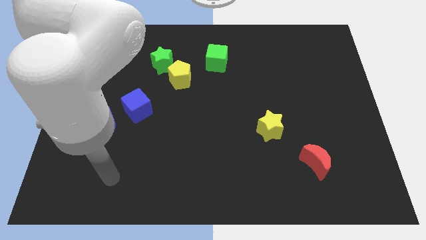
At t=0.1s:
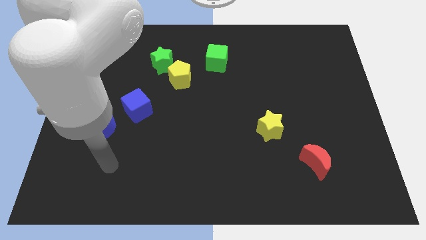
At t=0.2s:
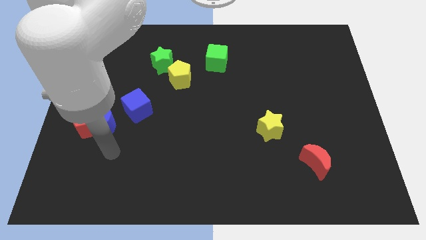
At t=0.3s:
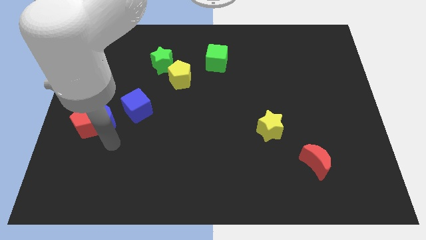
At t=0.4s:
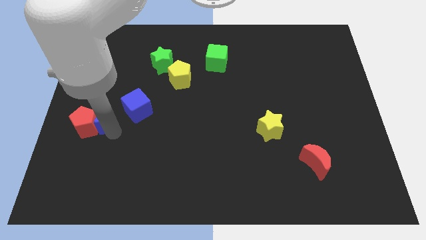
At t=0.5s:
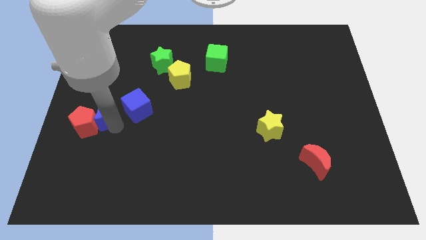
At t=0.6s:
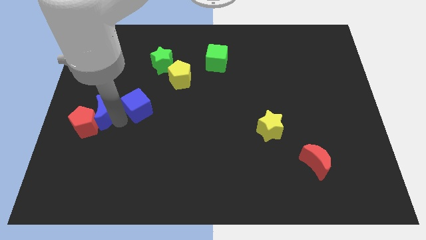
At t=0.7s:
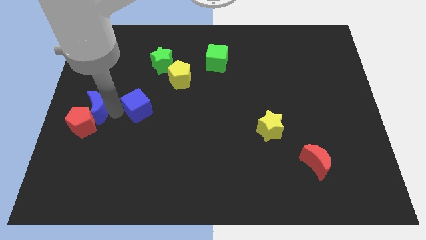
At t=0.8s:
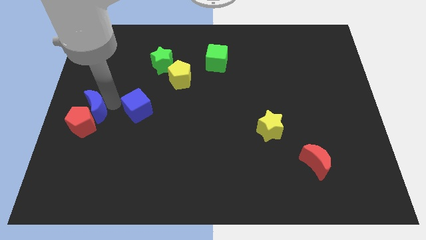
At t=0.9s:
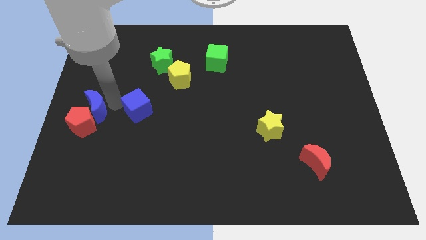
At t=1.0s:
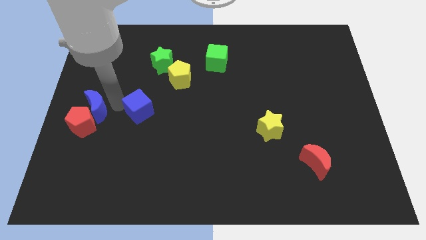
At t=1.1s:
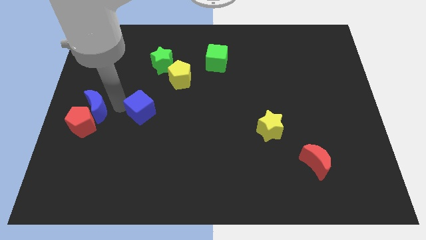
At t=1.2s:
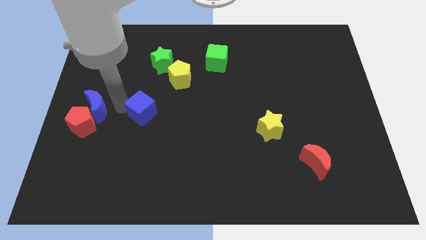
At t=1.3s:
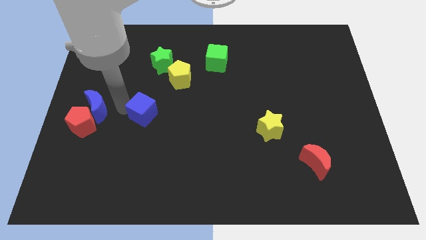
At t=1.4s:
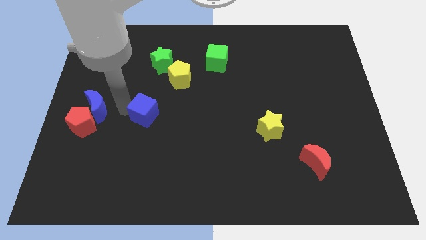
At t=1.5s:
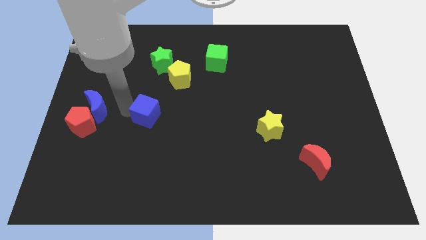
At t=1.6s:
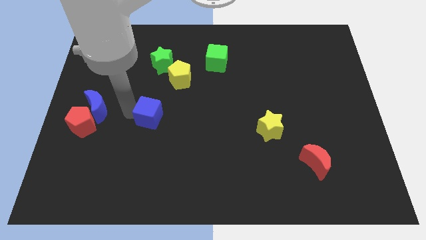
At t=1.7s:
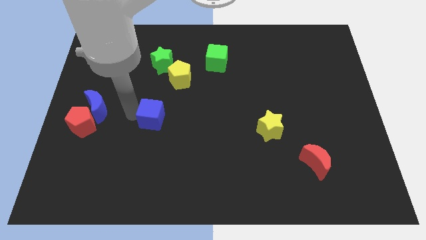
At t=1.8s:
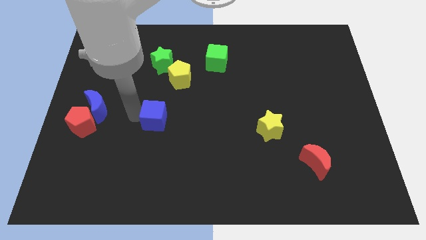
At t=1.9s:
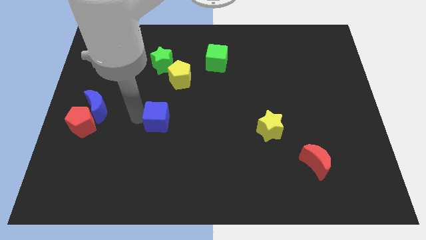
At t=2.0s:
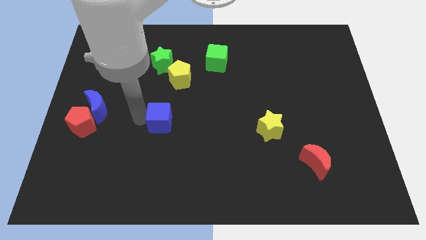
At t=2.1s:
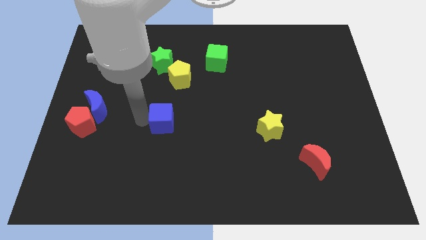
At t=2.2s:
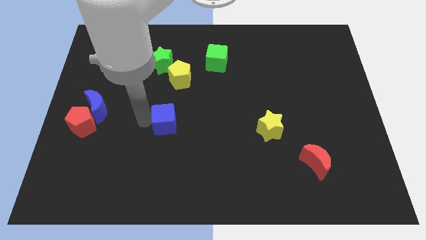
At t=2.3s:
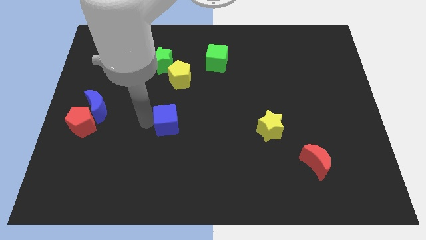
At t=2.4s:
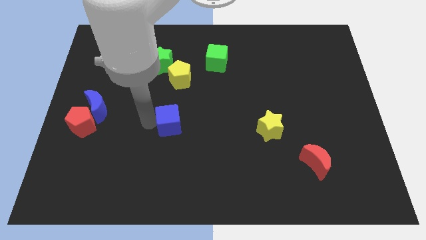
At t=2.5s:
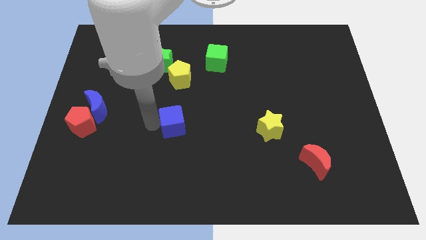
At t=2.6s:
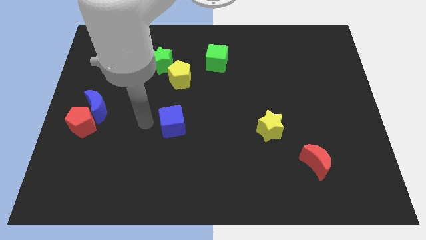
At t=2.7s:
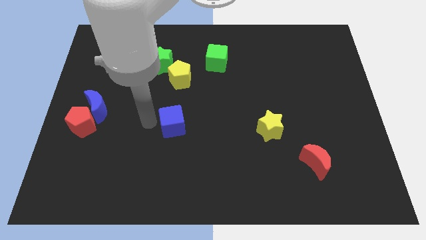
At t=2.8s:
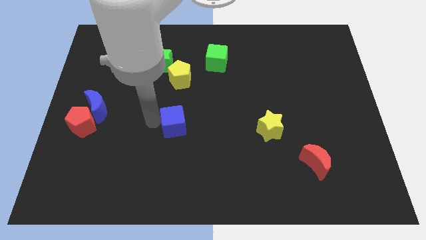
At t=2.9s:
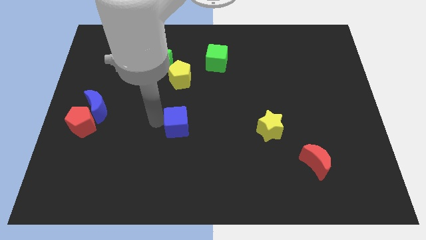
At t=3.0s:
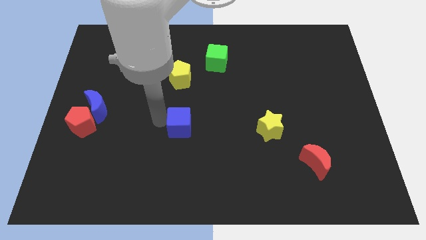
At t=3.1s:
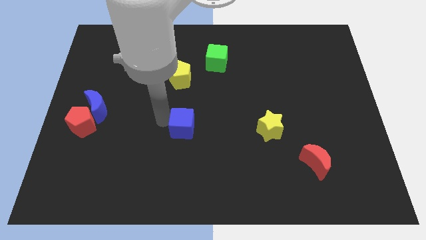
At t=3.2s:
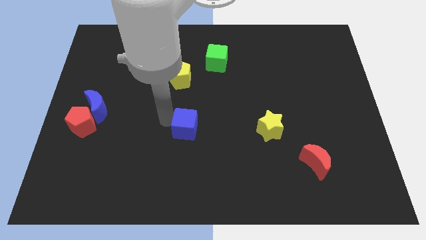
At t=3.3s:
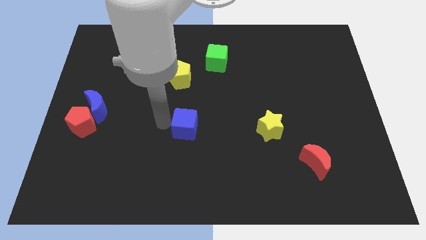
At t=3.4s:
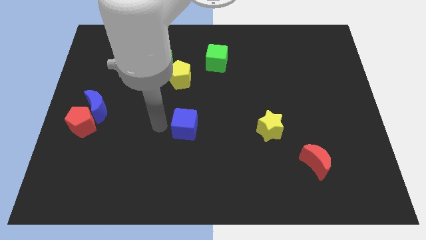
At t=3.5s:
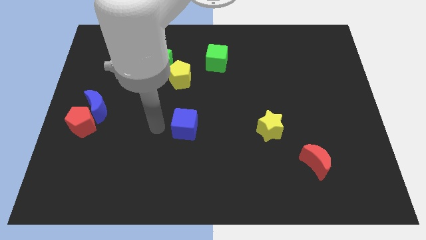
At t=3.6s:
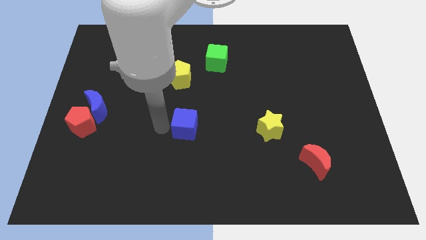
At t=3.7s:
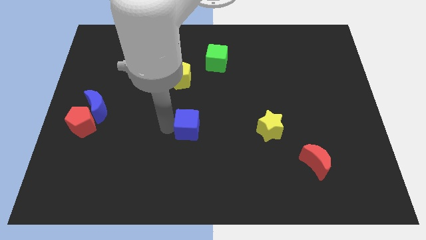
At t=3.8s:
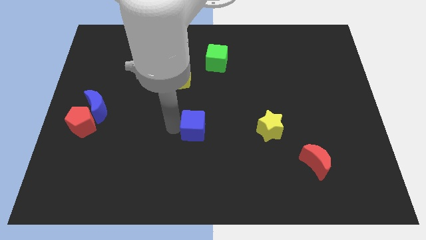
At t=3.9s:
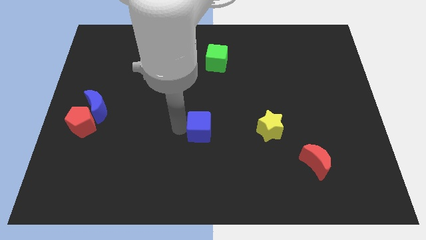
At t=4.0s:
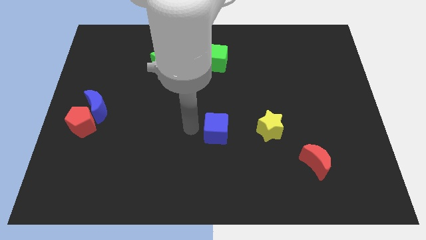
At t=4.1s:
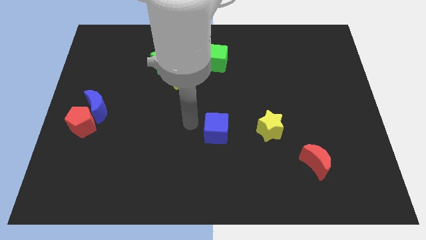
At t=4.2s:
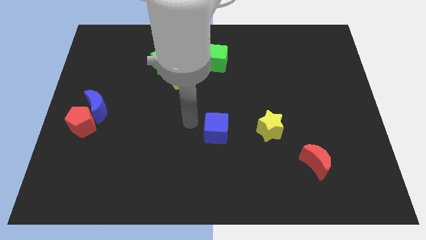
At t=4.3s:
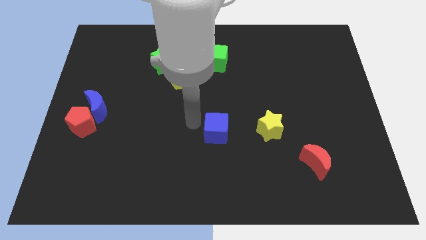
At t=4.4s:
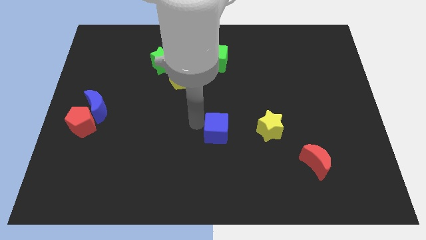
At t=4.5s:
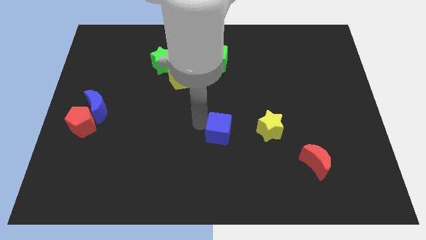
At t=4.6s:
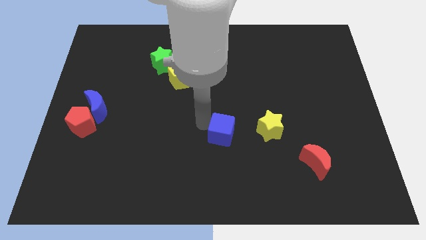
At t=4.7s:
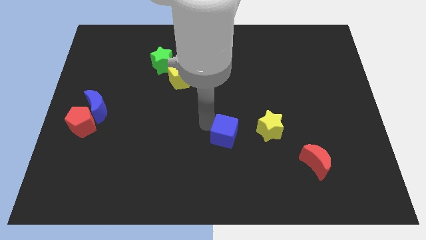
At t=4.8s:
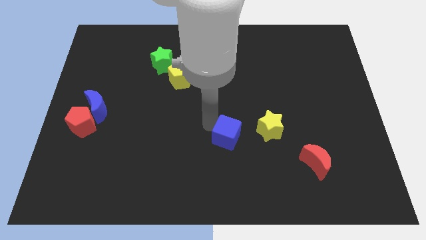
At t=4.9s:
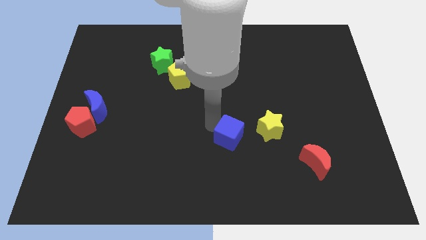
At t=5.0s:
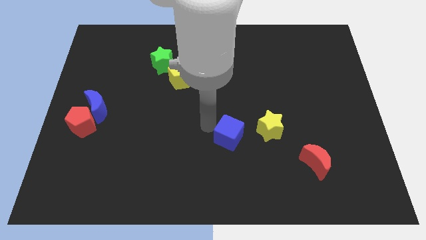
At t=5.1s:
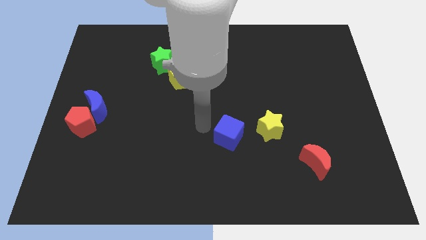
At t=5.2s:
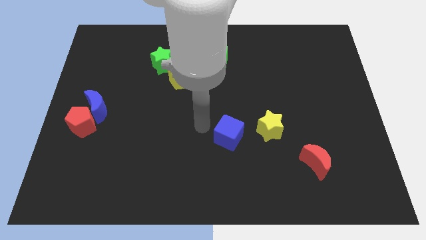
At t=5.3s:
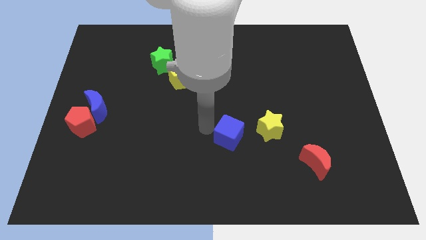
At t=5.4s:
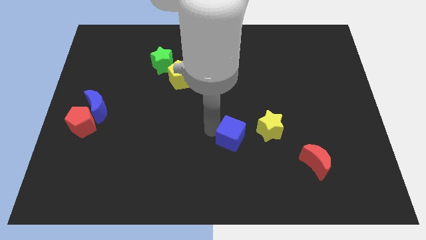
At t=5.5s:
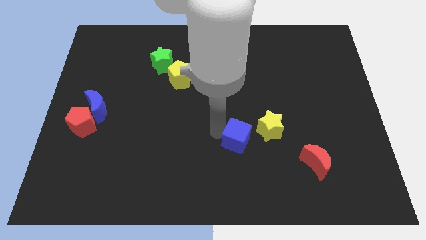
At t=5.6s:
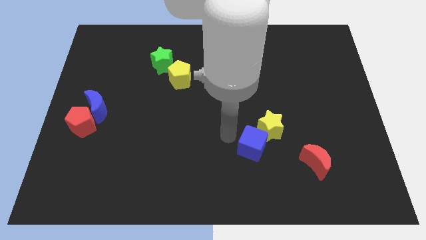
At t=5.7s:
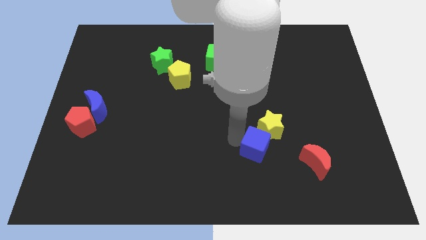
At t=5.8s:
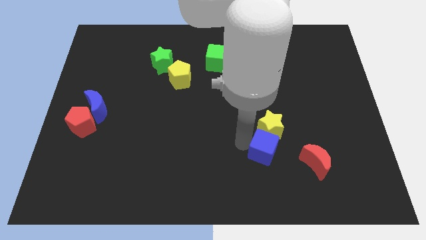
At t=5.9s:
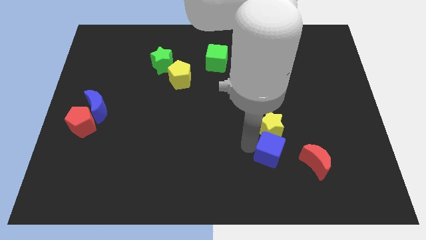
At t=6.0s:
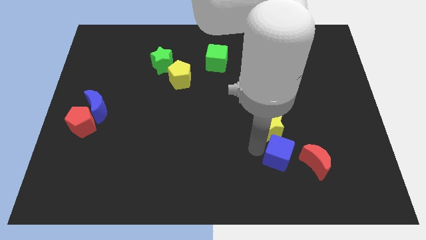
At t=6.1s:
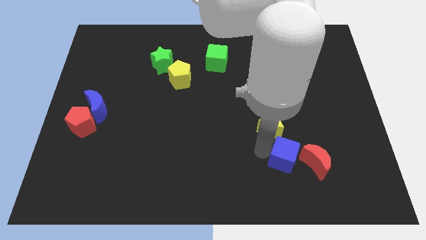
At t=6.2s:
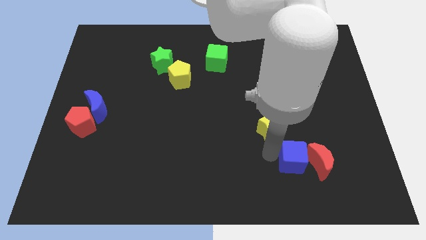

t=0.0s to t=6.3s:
slide the blue cube next to the red moon

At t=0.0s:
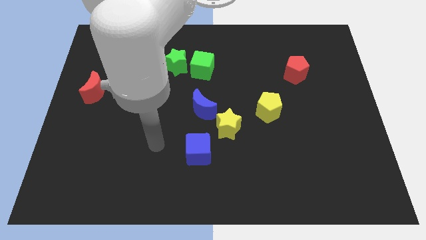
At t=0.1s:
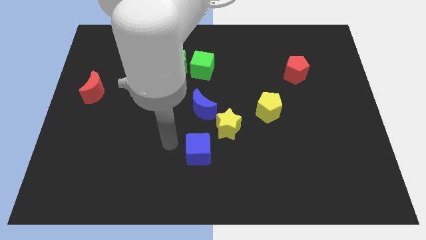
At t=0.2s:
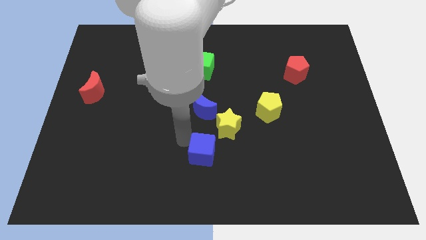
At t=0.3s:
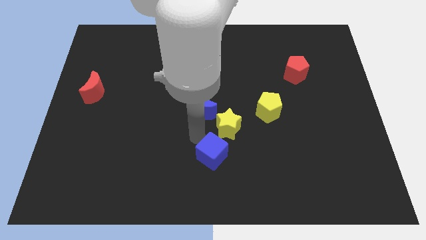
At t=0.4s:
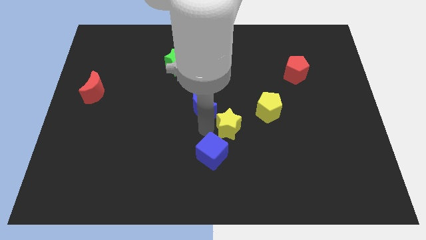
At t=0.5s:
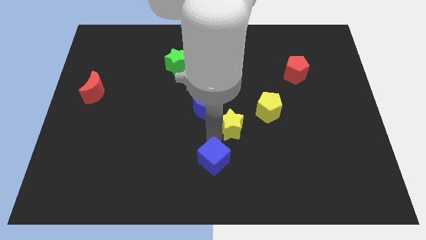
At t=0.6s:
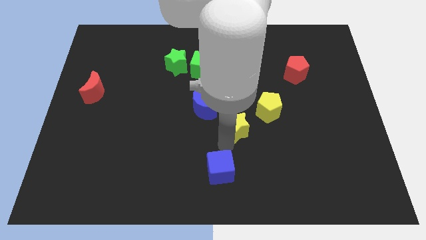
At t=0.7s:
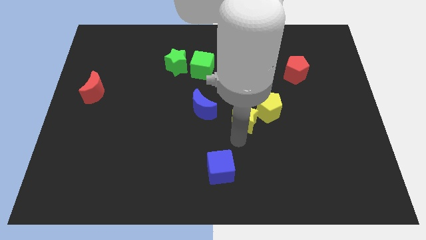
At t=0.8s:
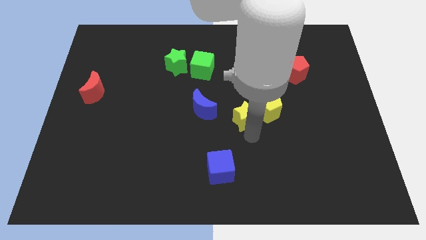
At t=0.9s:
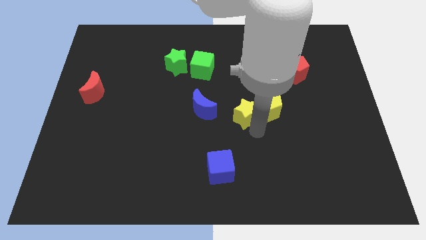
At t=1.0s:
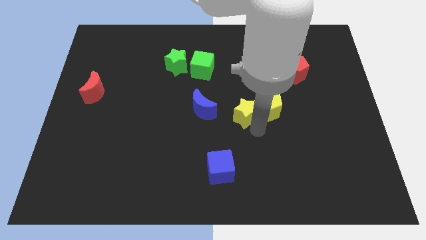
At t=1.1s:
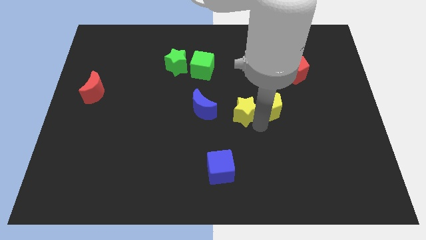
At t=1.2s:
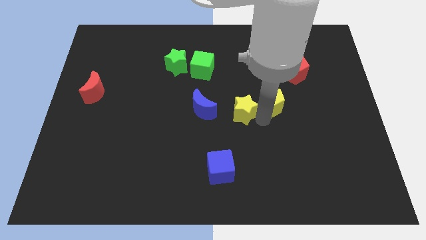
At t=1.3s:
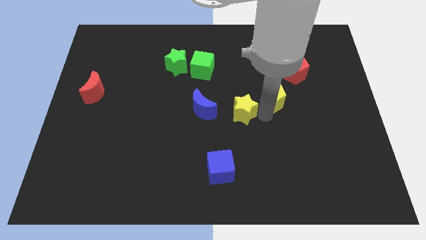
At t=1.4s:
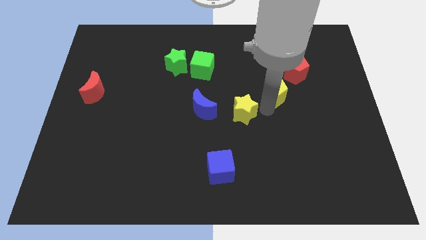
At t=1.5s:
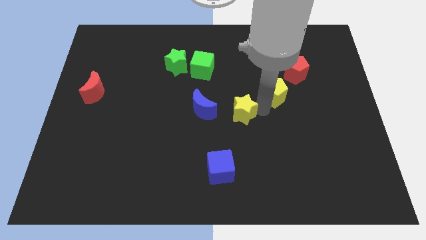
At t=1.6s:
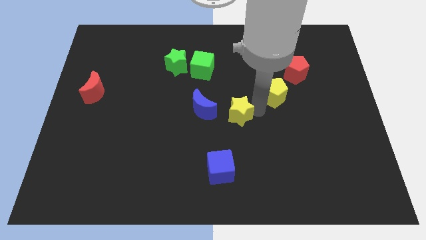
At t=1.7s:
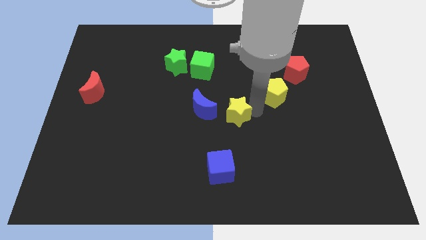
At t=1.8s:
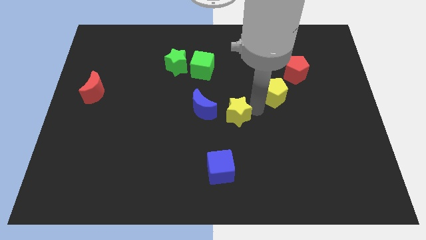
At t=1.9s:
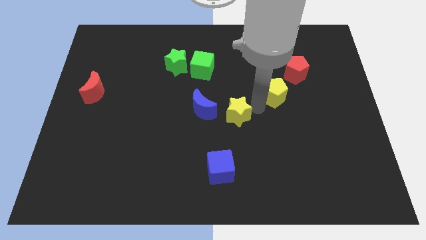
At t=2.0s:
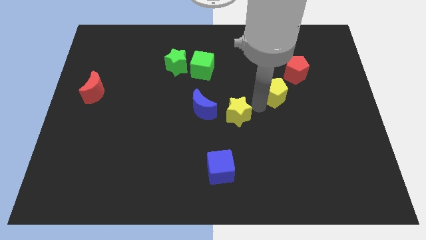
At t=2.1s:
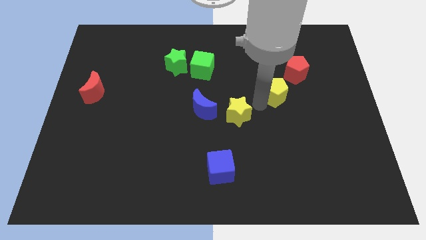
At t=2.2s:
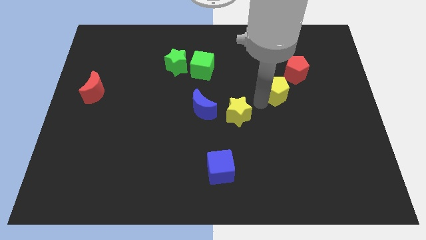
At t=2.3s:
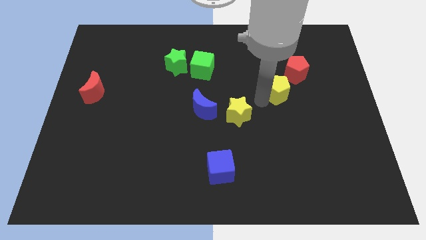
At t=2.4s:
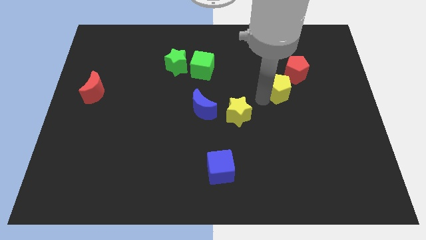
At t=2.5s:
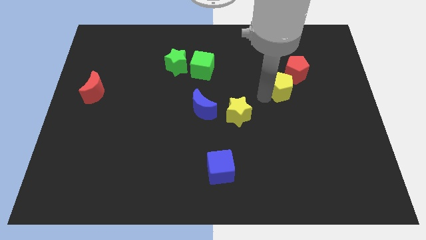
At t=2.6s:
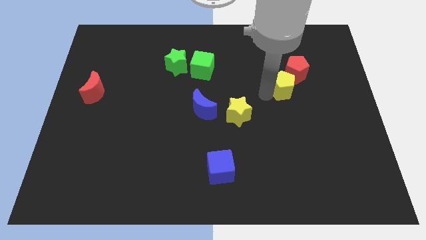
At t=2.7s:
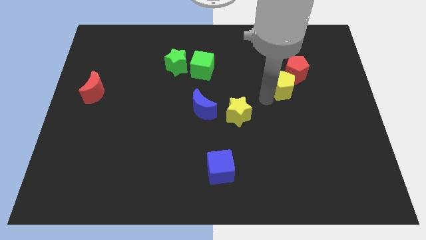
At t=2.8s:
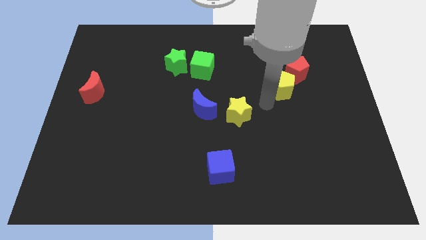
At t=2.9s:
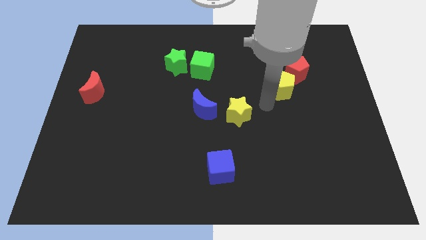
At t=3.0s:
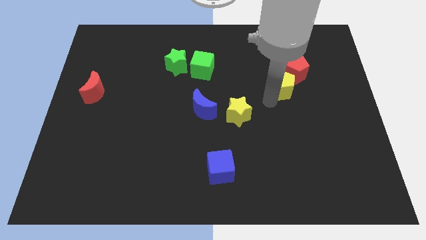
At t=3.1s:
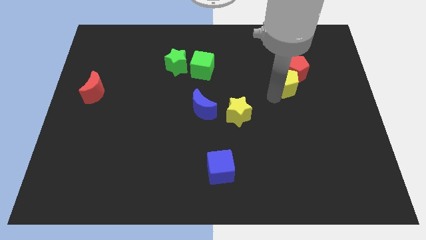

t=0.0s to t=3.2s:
push the yellow pentagon next to the red pentagon
